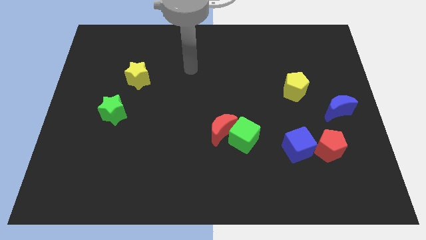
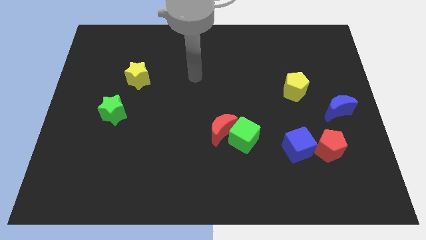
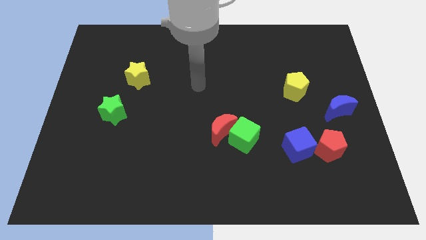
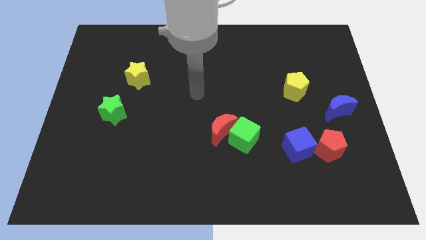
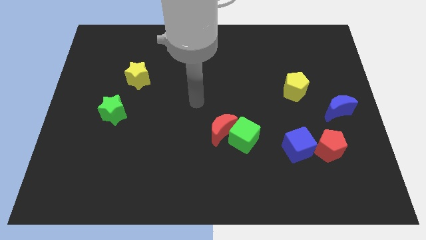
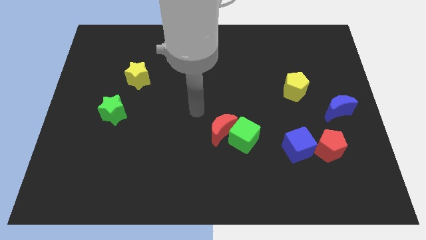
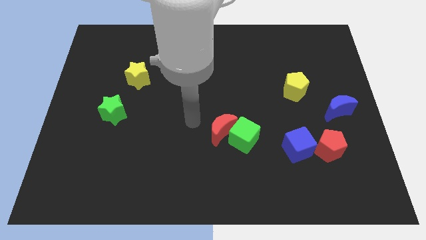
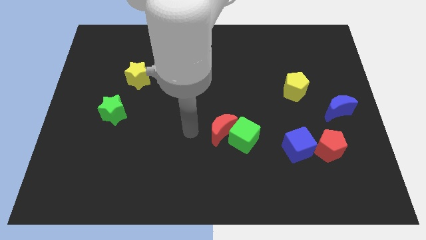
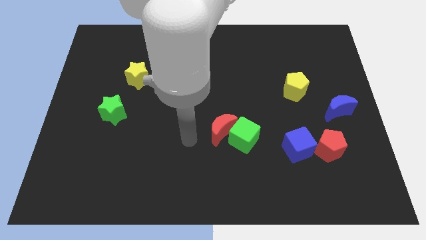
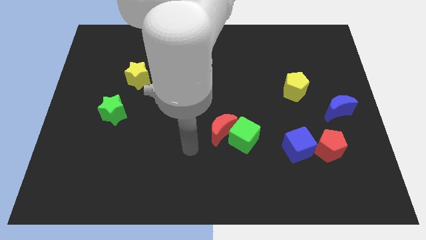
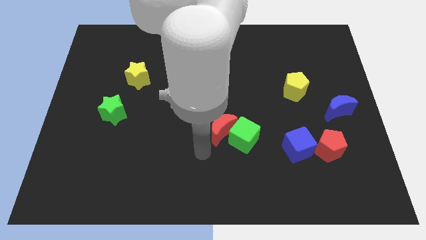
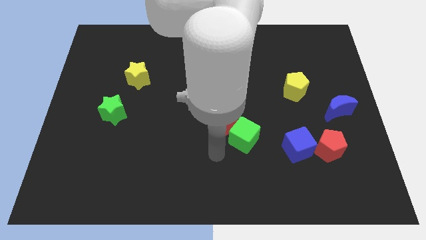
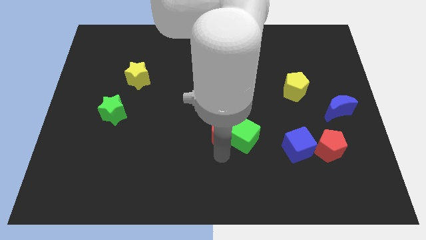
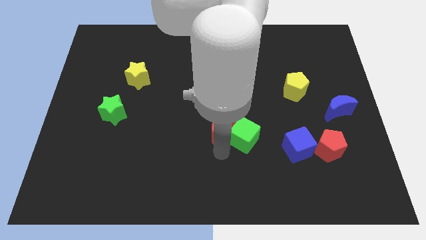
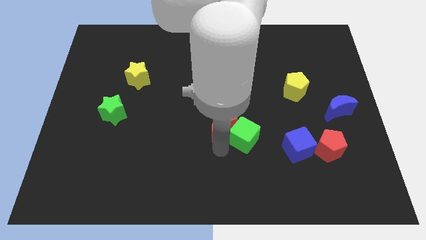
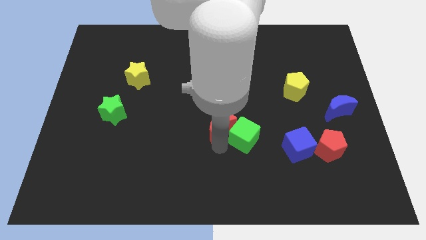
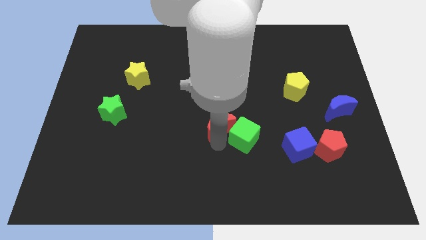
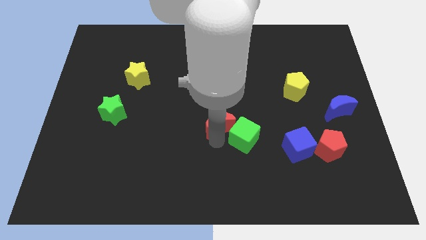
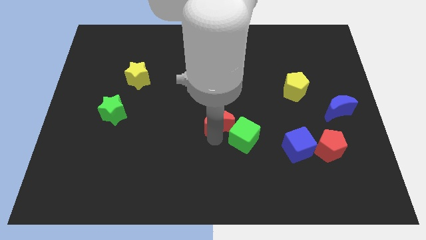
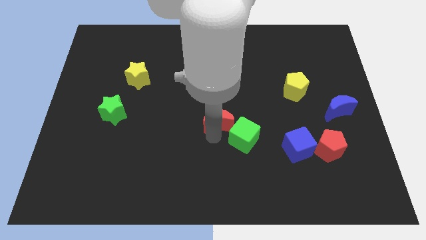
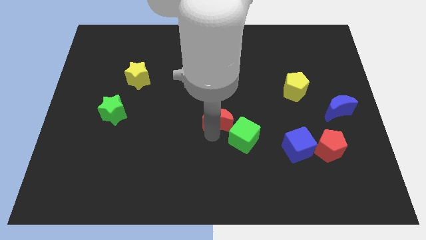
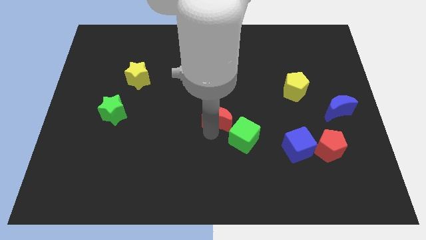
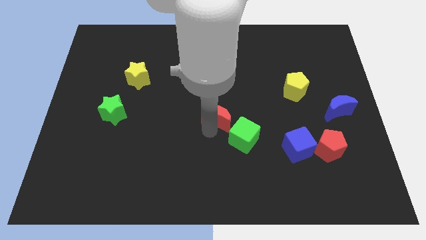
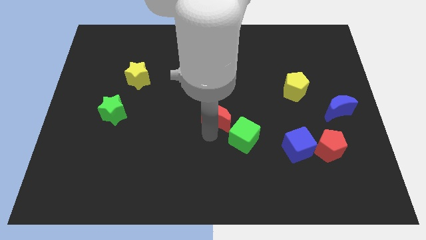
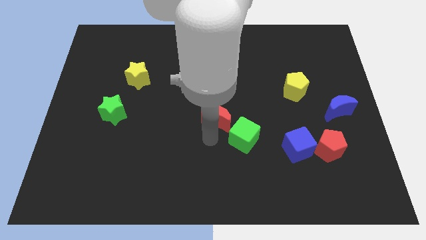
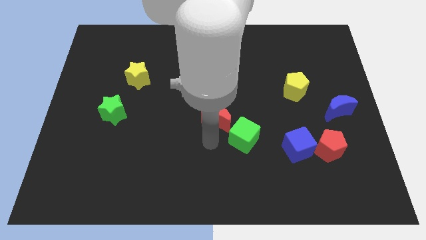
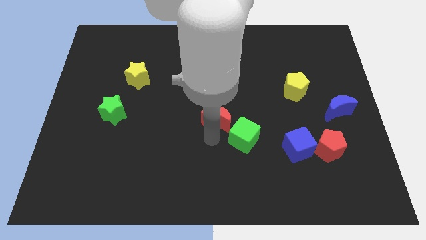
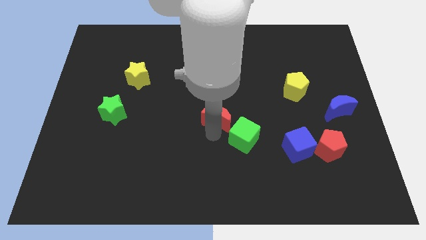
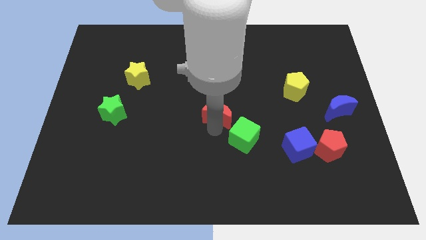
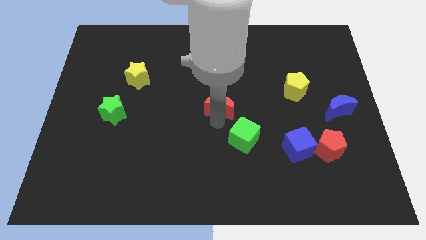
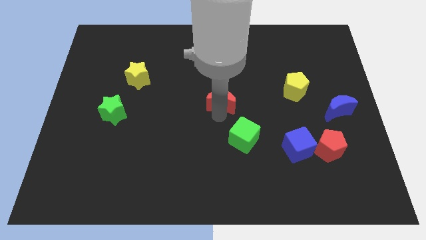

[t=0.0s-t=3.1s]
slightly push the red moon upwards

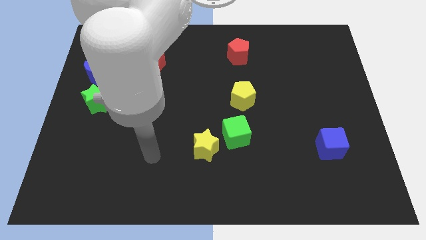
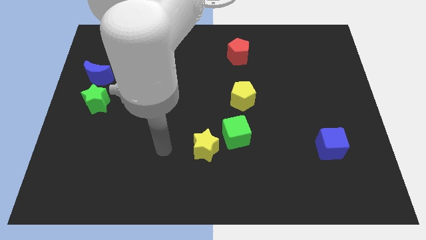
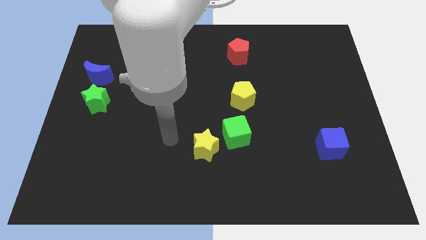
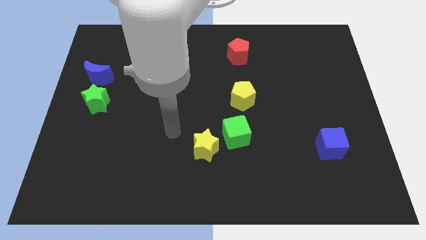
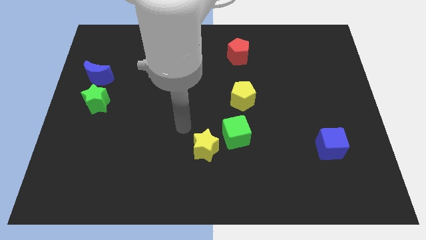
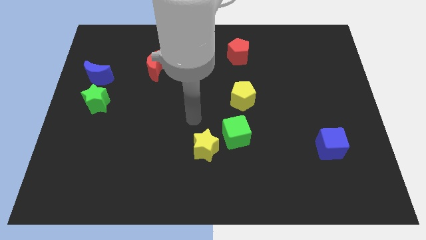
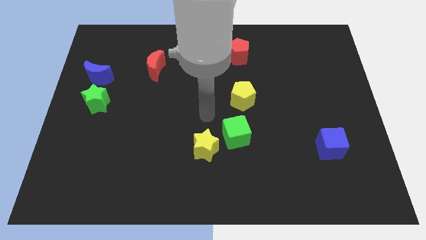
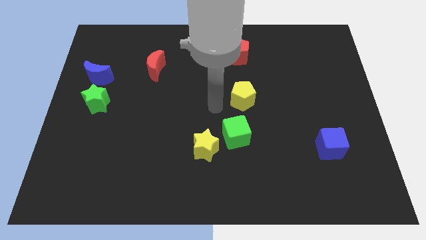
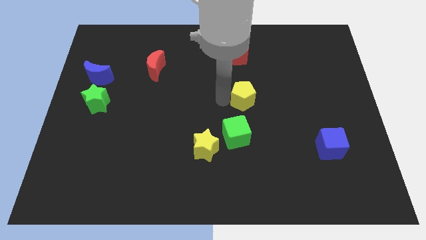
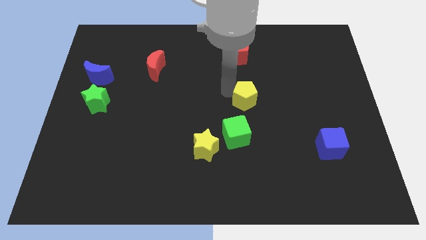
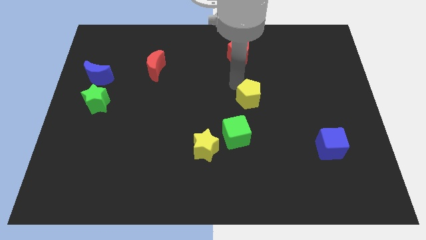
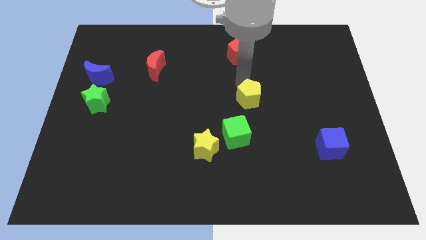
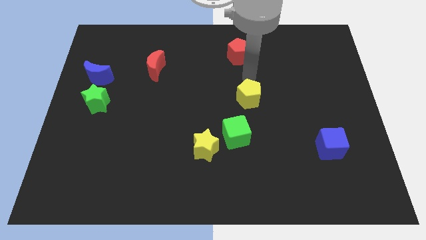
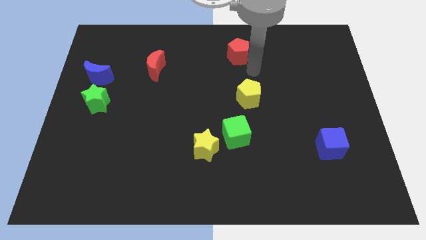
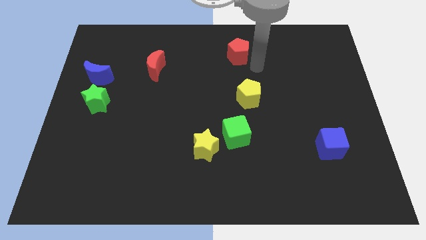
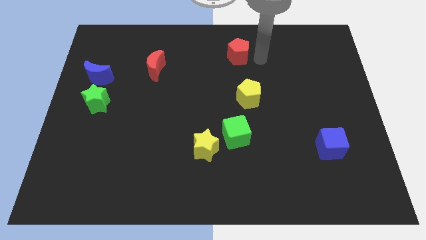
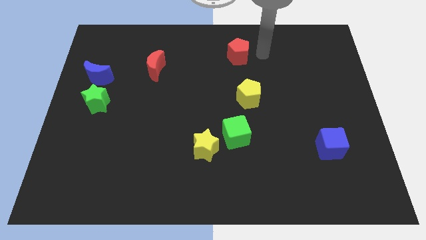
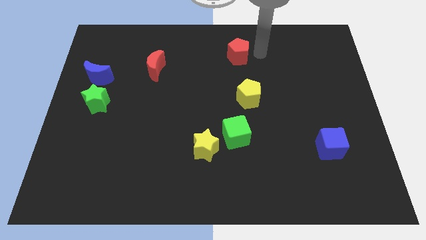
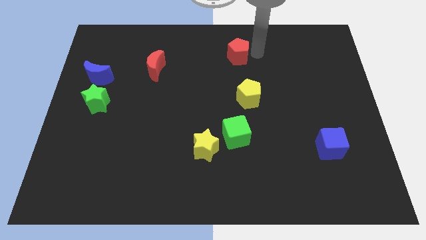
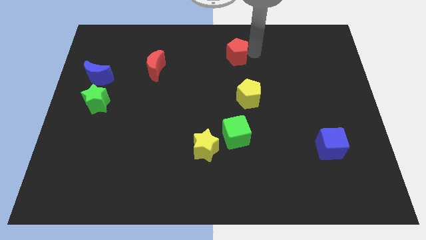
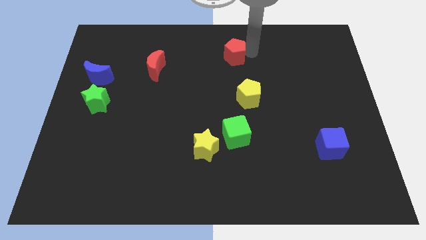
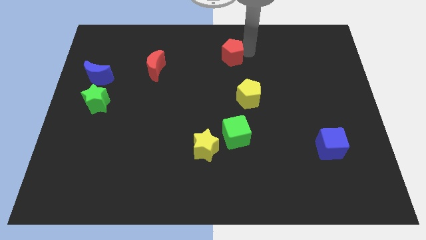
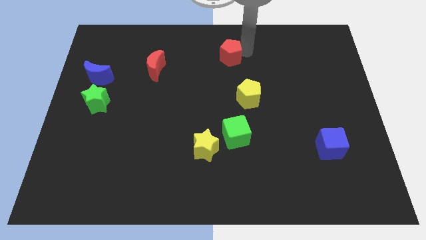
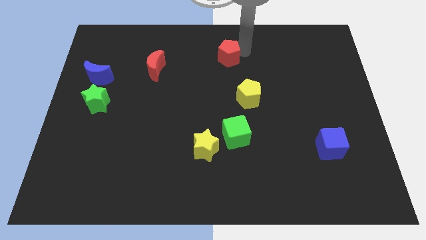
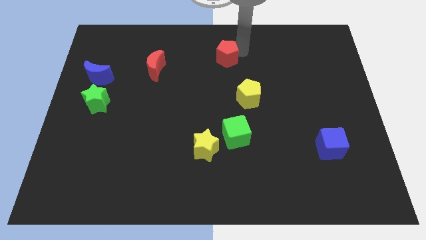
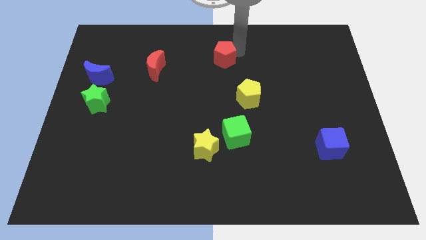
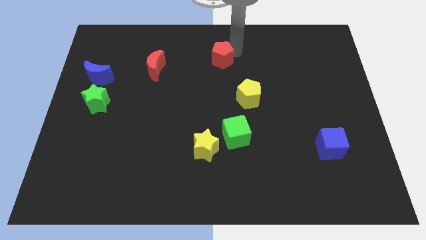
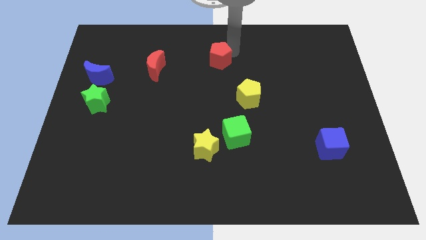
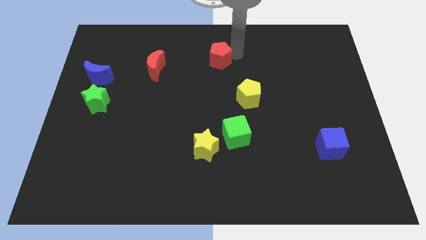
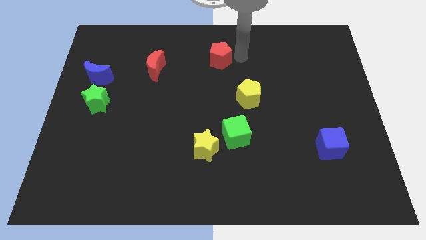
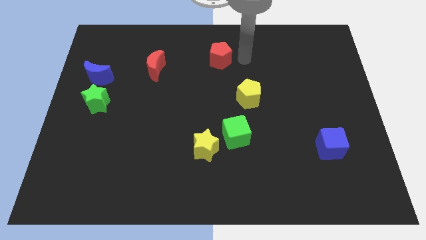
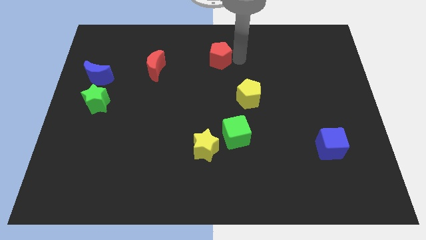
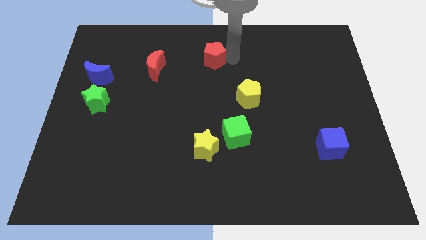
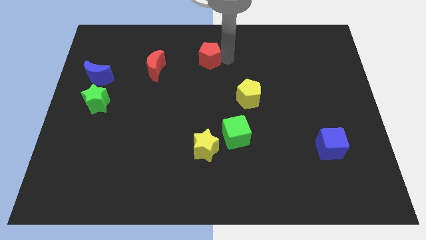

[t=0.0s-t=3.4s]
slightly push the red pentagon left

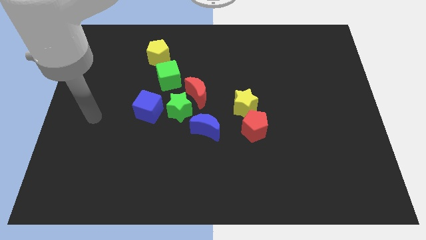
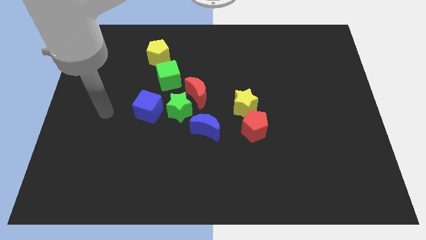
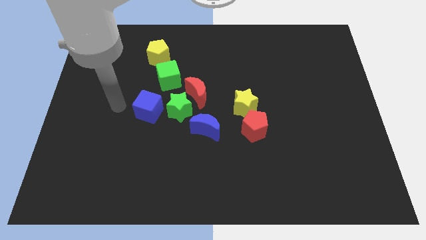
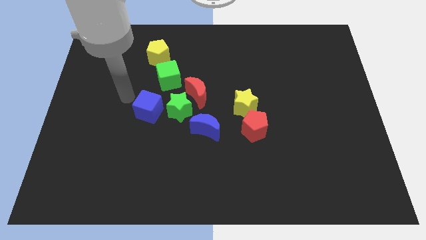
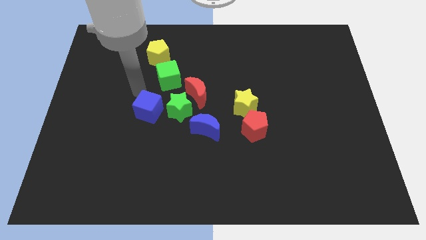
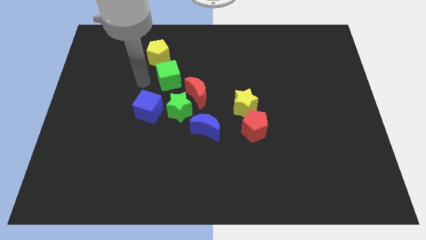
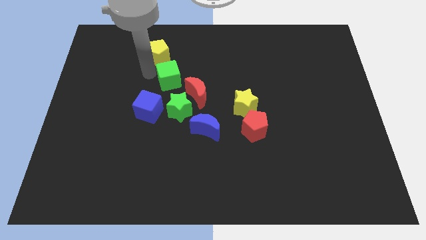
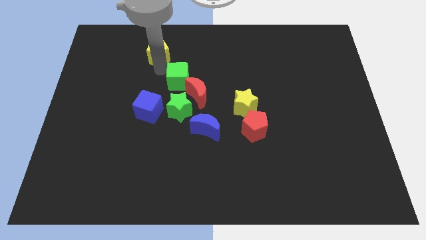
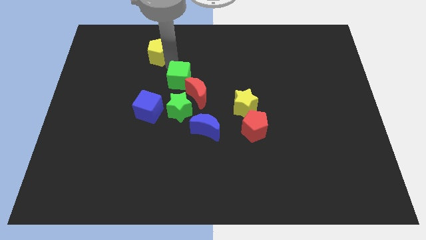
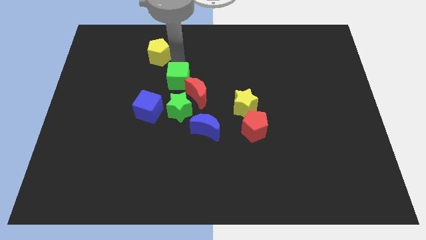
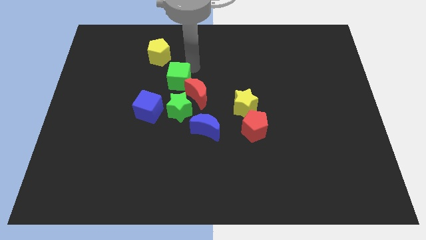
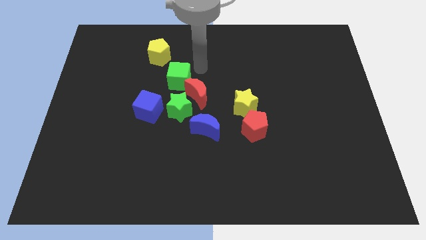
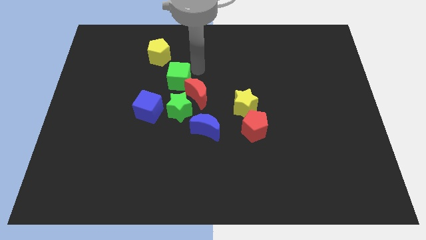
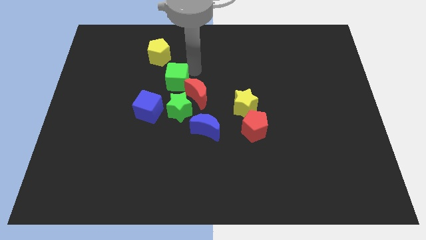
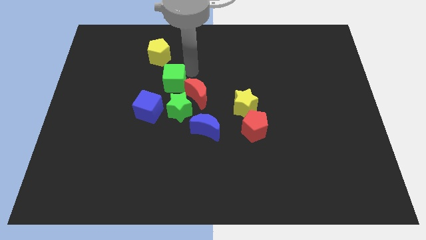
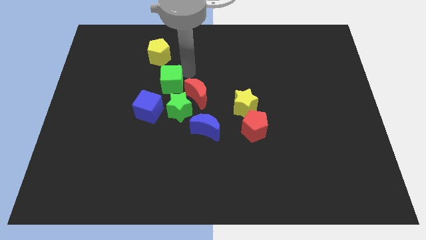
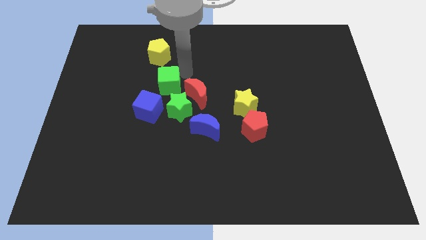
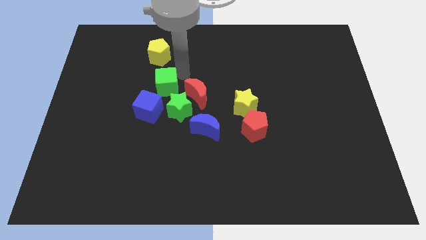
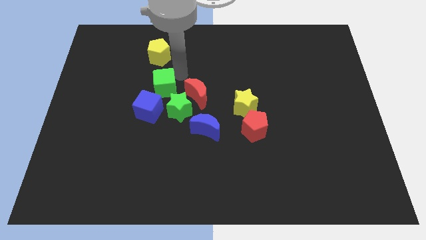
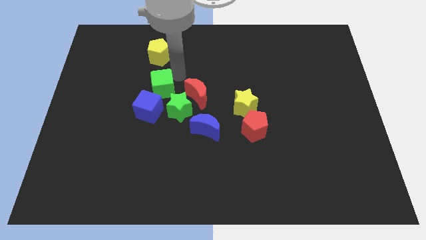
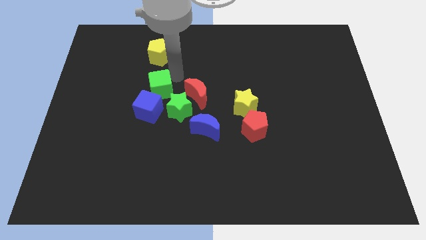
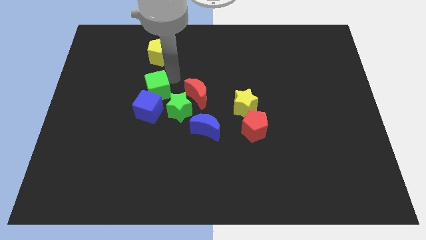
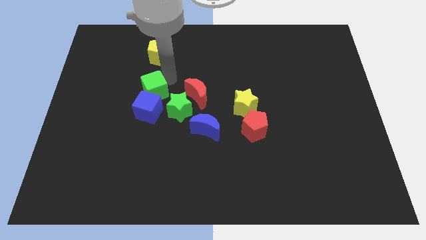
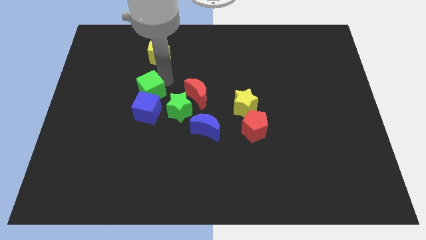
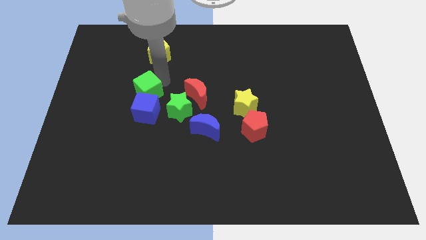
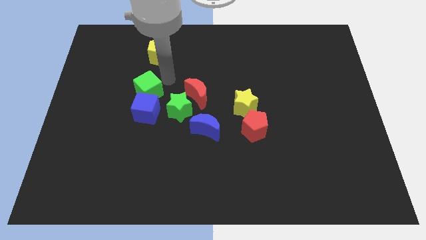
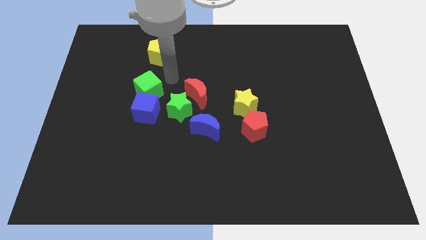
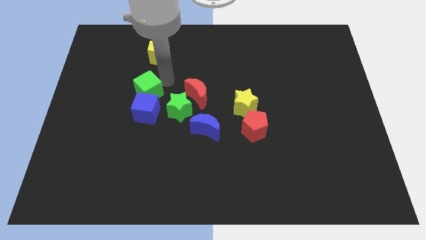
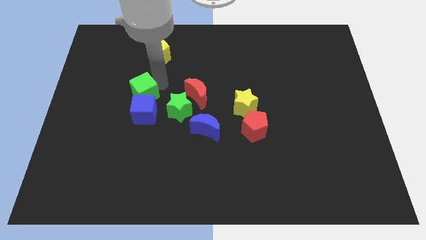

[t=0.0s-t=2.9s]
slightly push the green cube downwards and left diagonally
